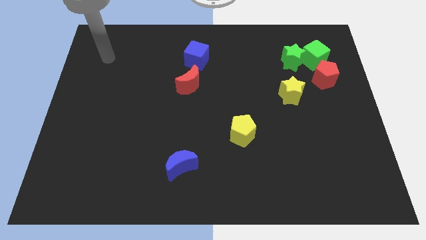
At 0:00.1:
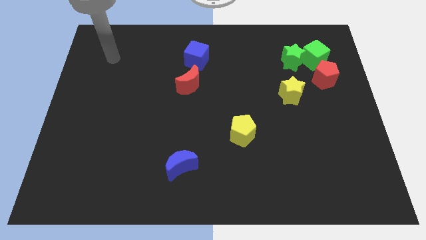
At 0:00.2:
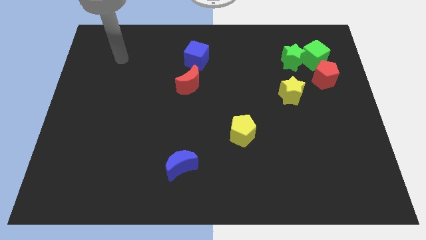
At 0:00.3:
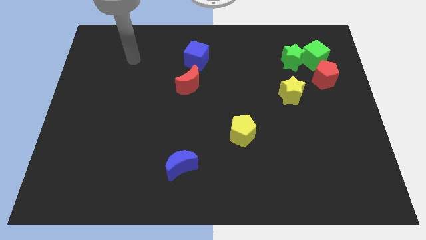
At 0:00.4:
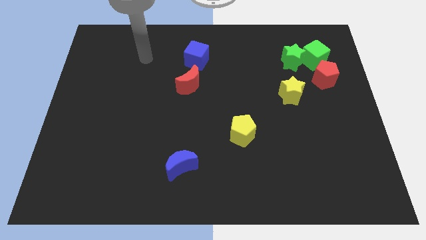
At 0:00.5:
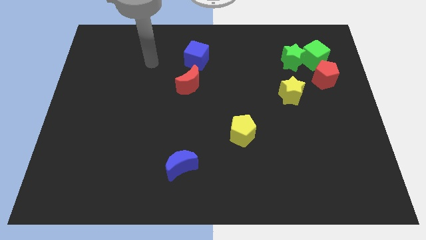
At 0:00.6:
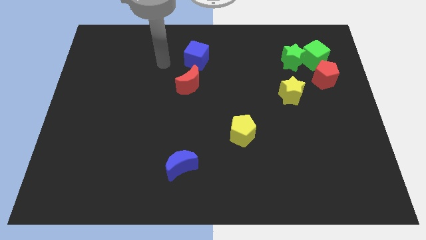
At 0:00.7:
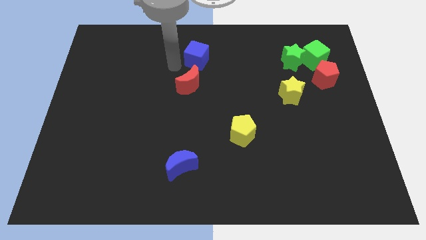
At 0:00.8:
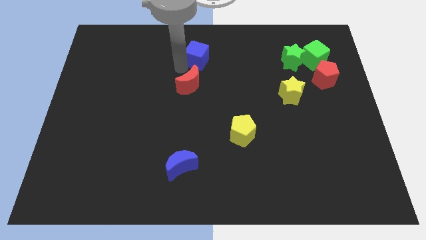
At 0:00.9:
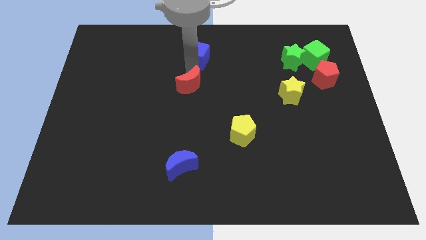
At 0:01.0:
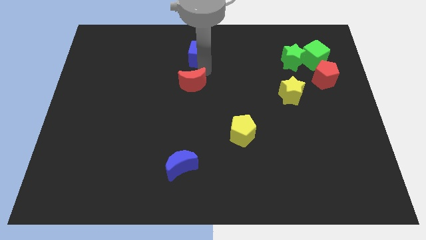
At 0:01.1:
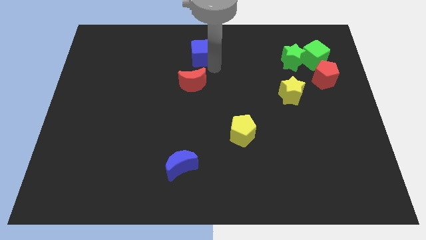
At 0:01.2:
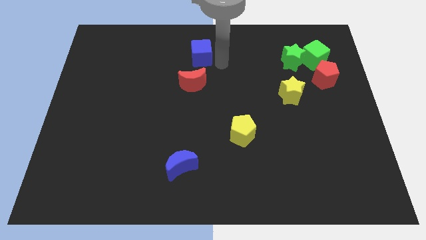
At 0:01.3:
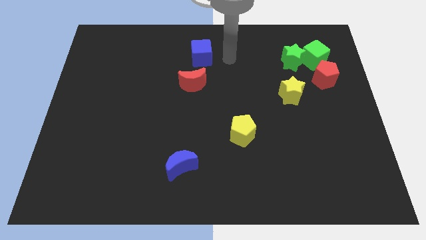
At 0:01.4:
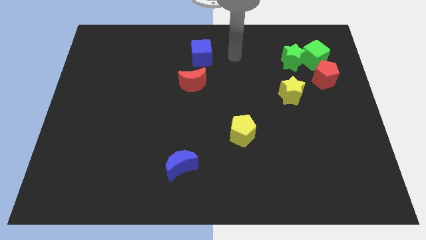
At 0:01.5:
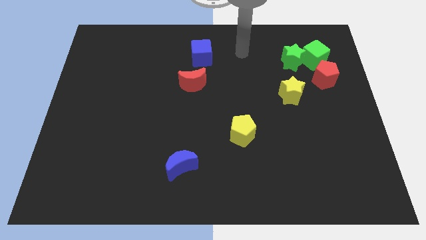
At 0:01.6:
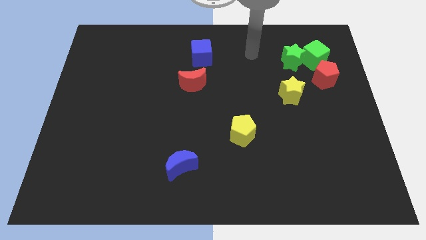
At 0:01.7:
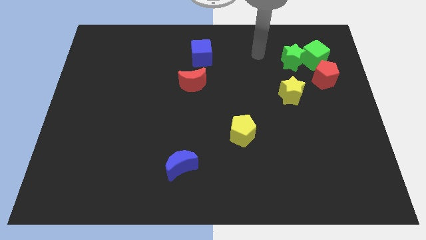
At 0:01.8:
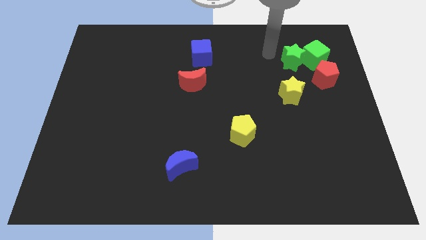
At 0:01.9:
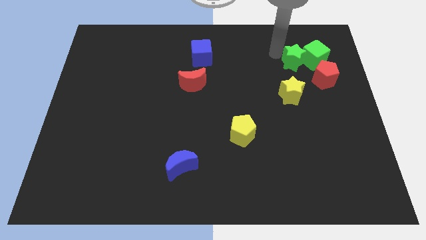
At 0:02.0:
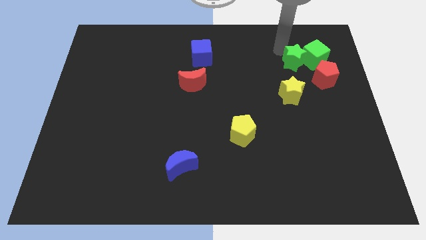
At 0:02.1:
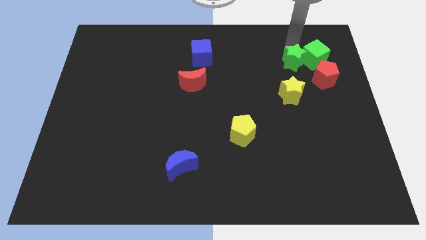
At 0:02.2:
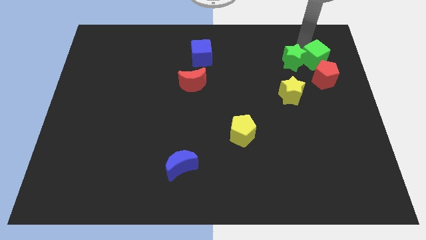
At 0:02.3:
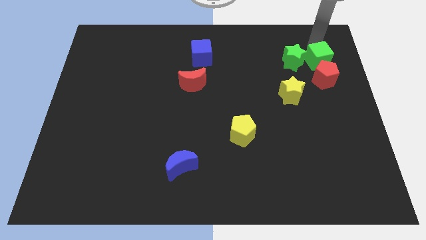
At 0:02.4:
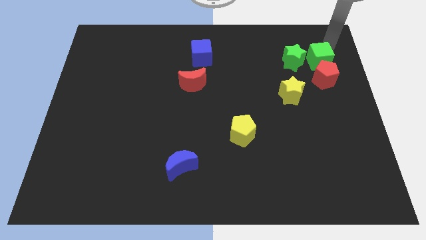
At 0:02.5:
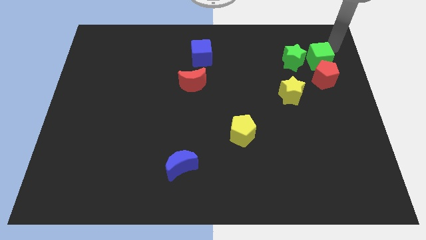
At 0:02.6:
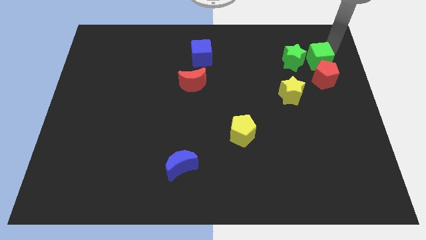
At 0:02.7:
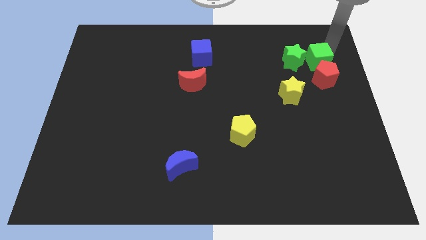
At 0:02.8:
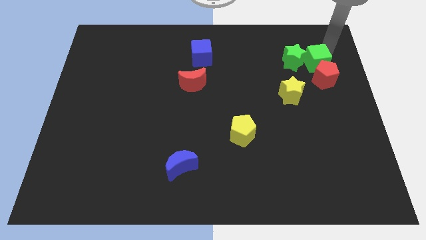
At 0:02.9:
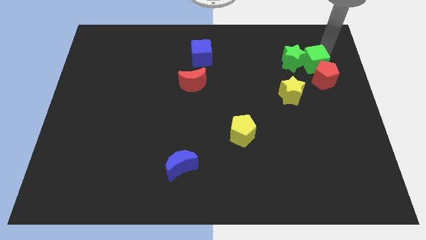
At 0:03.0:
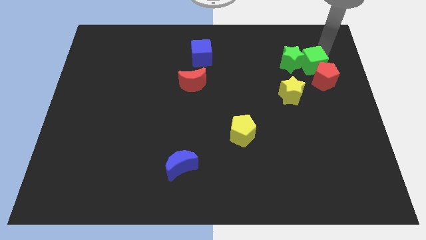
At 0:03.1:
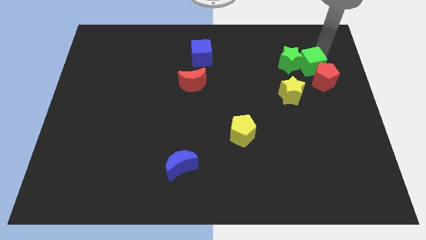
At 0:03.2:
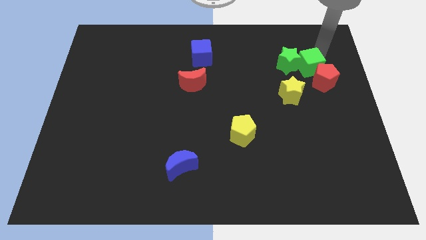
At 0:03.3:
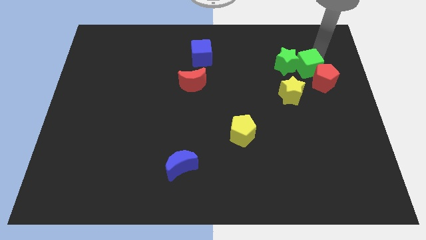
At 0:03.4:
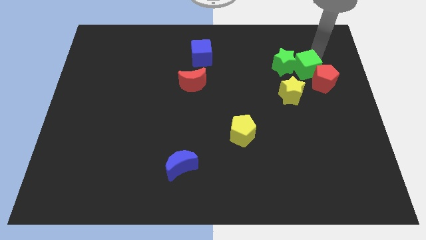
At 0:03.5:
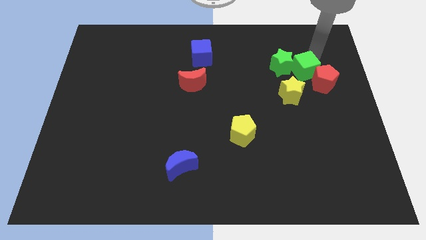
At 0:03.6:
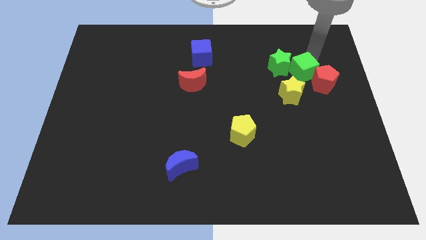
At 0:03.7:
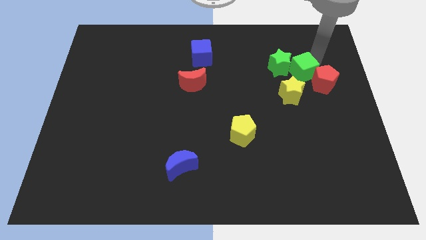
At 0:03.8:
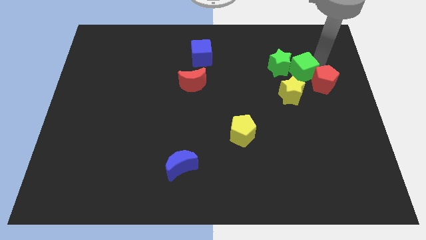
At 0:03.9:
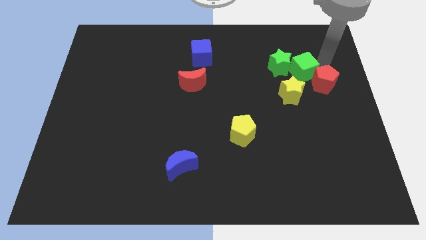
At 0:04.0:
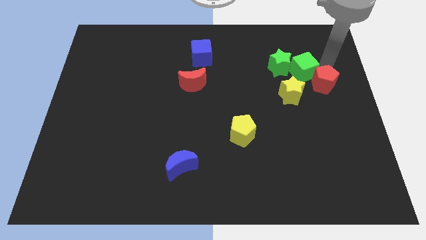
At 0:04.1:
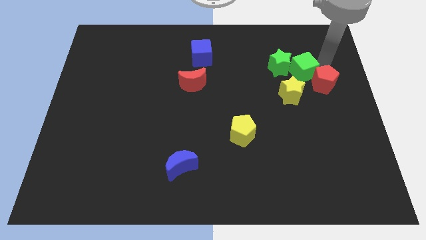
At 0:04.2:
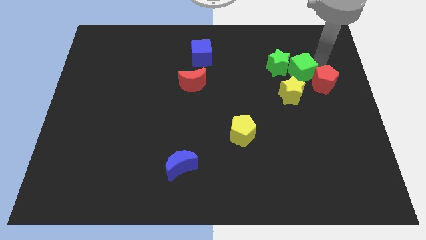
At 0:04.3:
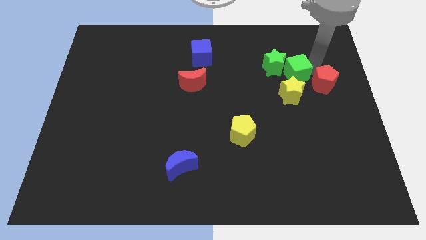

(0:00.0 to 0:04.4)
slightly move the green cube downwards and then left

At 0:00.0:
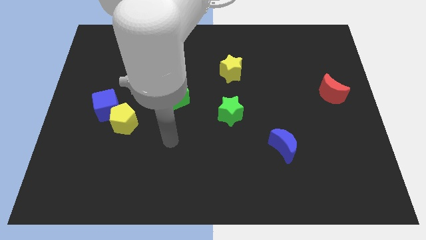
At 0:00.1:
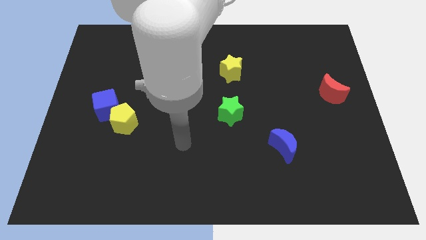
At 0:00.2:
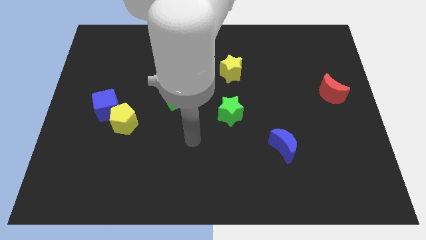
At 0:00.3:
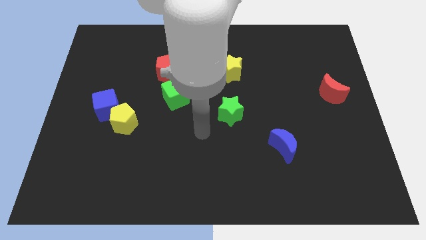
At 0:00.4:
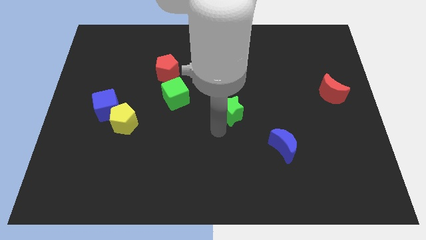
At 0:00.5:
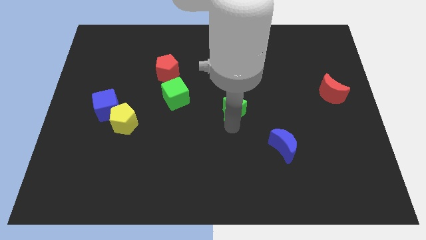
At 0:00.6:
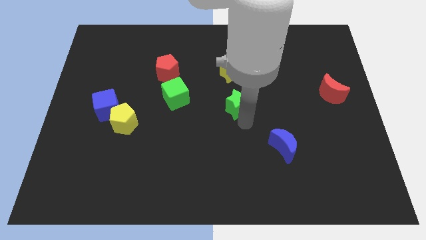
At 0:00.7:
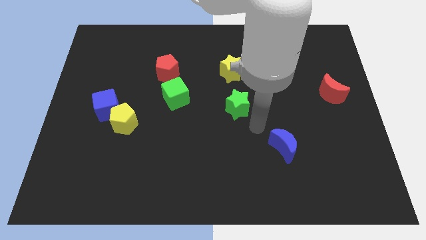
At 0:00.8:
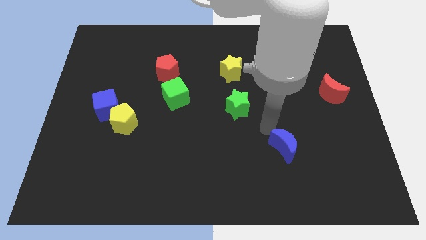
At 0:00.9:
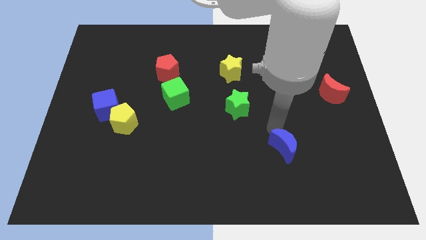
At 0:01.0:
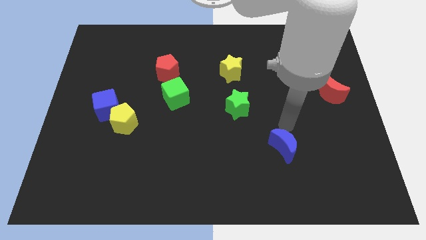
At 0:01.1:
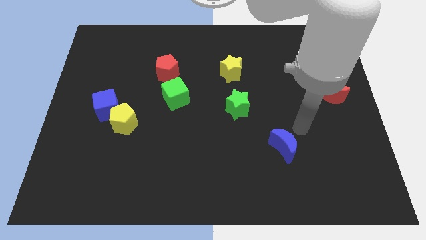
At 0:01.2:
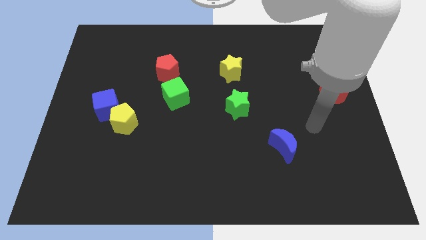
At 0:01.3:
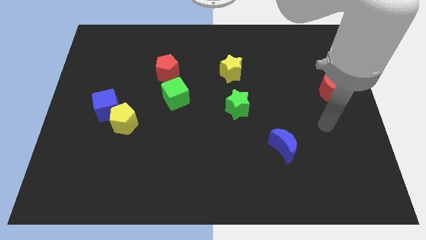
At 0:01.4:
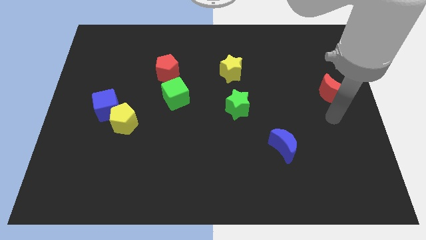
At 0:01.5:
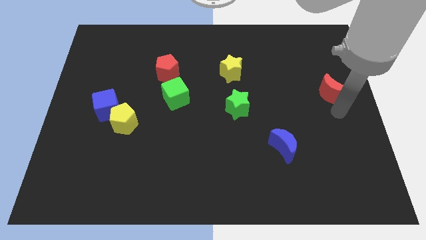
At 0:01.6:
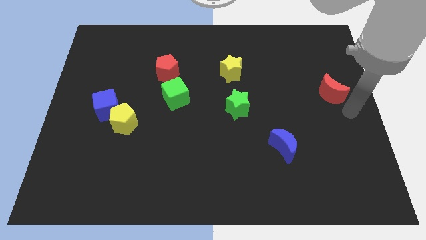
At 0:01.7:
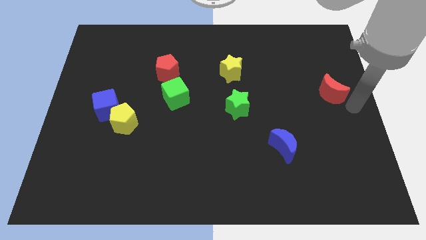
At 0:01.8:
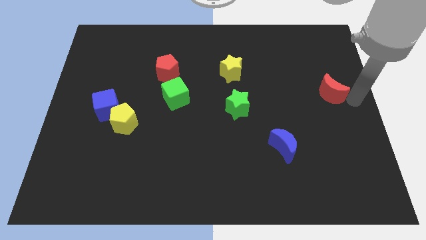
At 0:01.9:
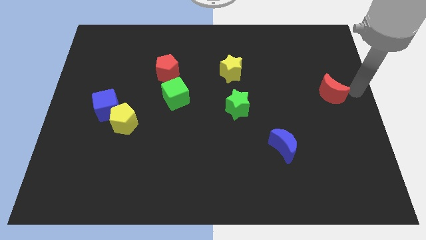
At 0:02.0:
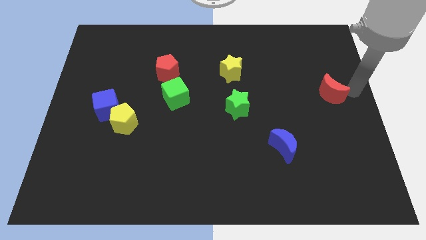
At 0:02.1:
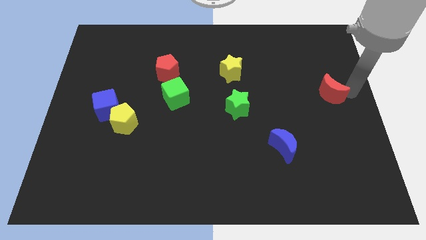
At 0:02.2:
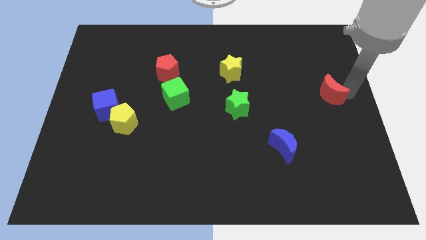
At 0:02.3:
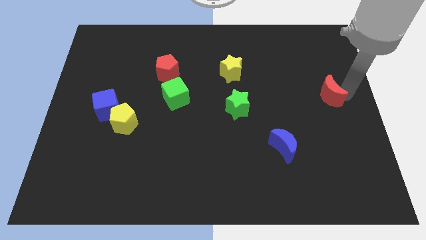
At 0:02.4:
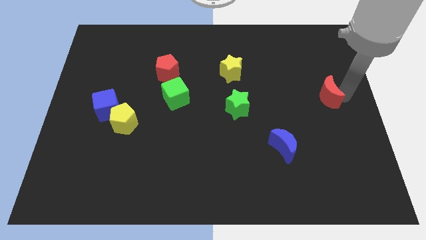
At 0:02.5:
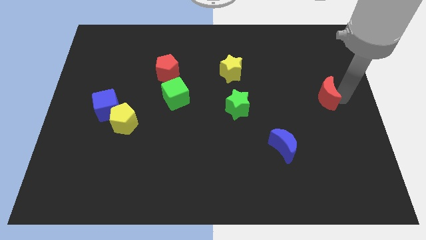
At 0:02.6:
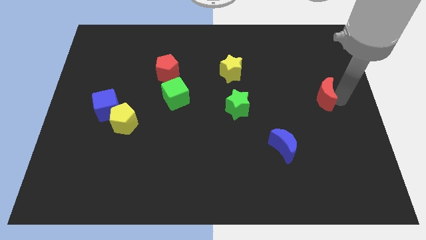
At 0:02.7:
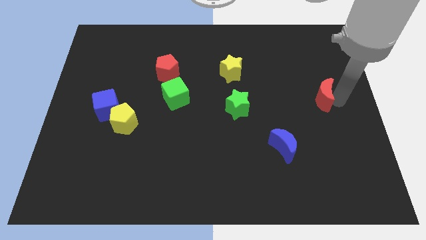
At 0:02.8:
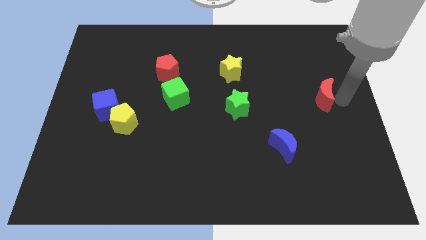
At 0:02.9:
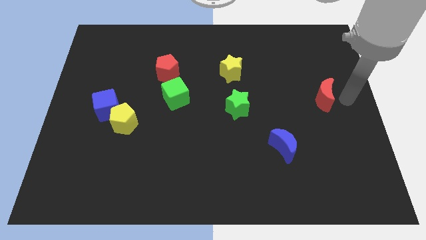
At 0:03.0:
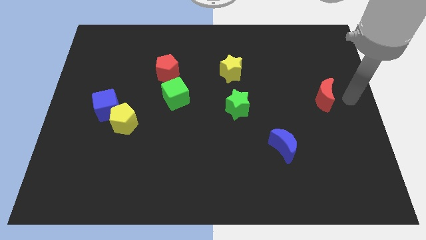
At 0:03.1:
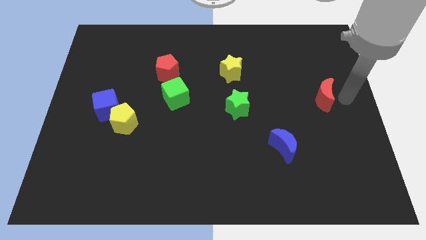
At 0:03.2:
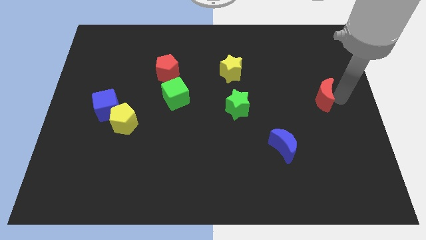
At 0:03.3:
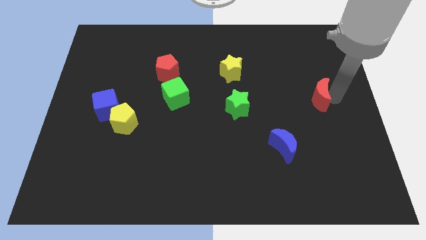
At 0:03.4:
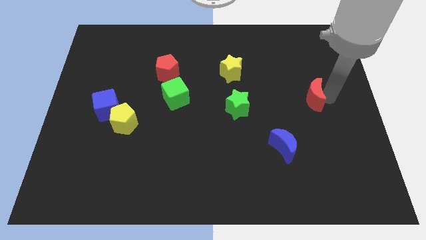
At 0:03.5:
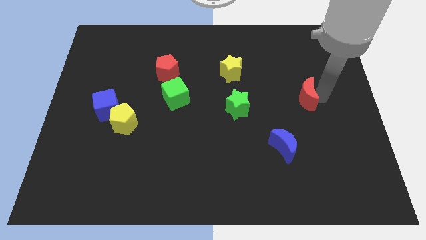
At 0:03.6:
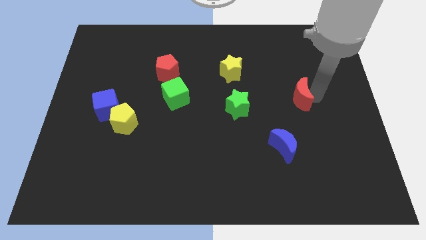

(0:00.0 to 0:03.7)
move the red moon a bit to the left
